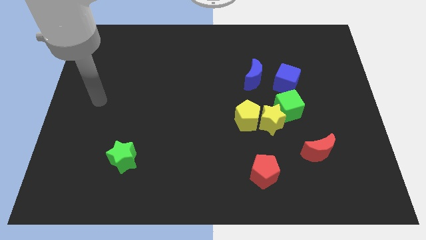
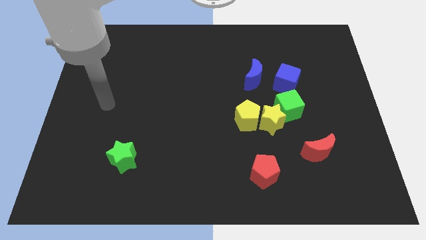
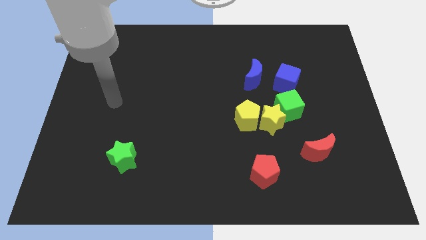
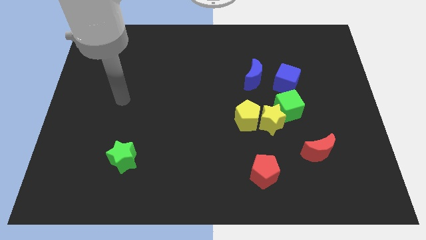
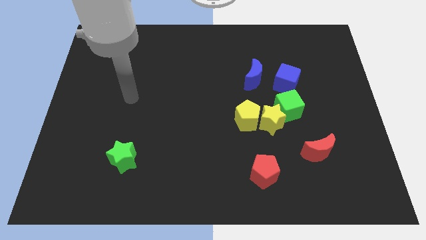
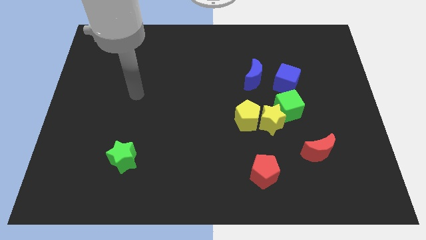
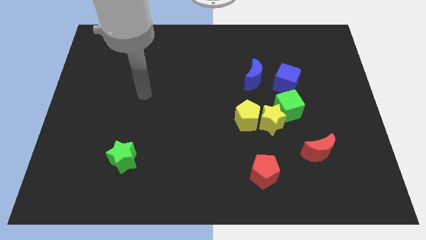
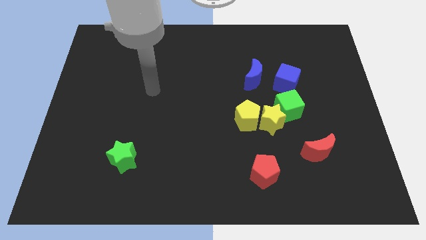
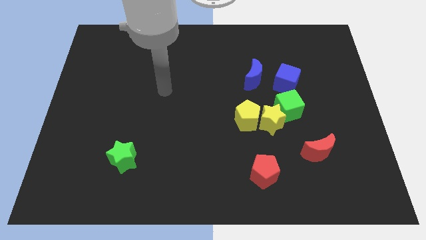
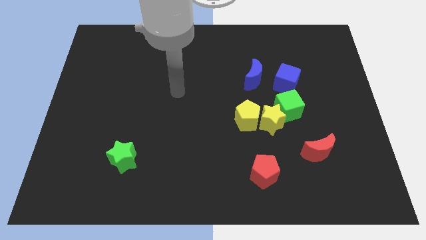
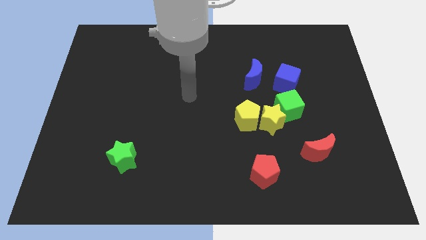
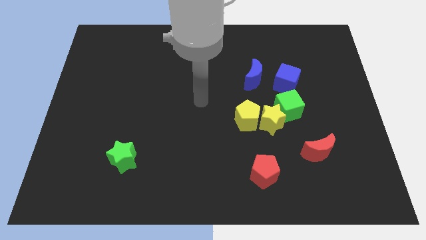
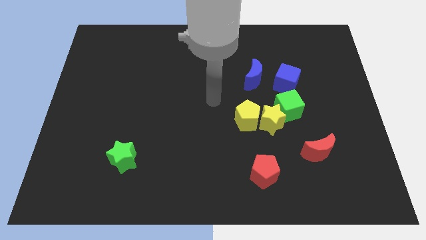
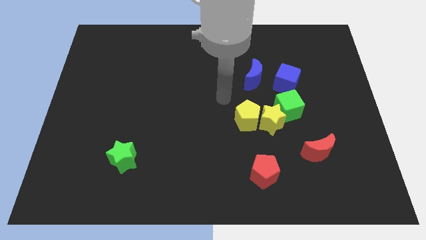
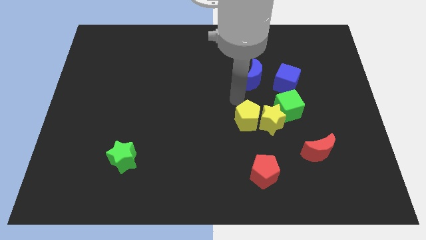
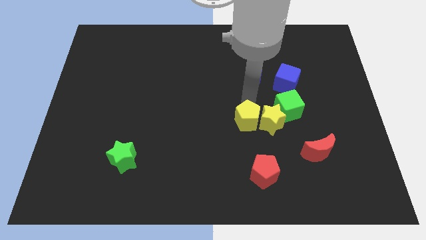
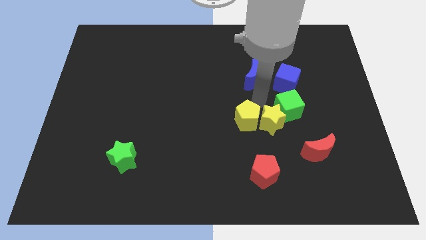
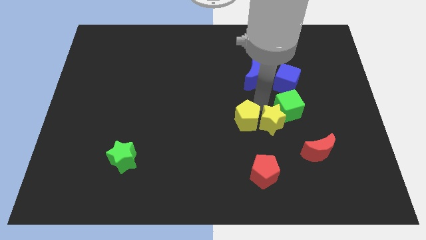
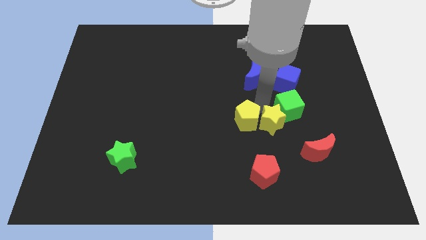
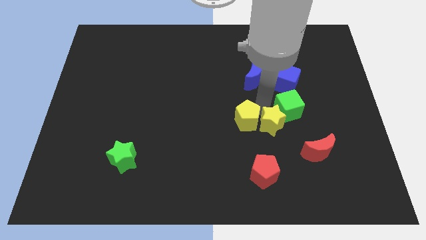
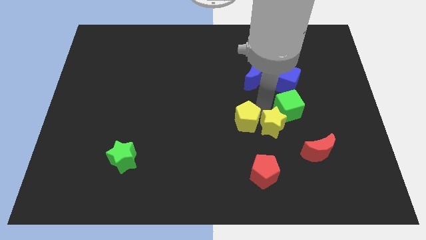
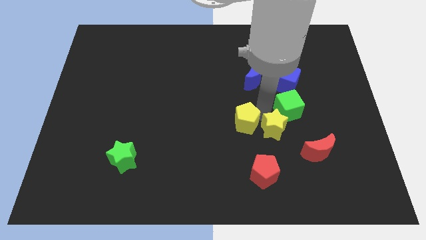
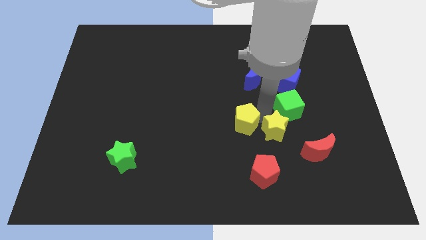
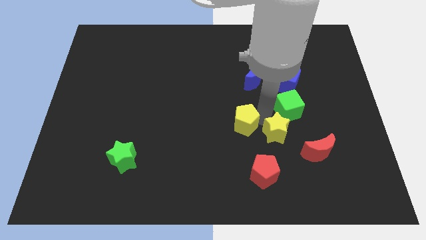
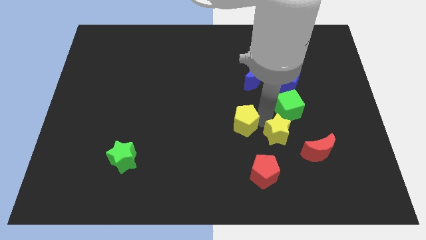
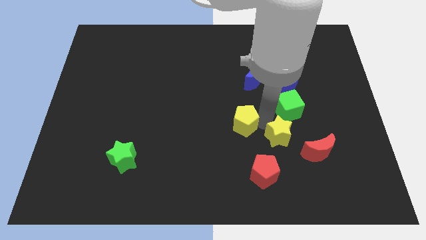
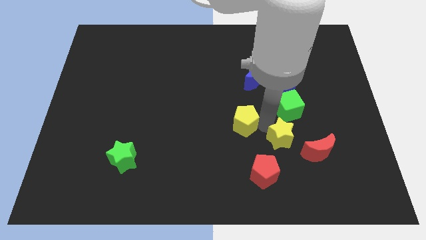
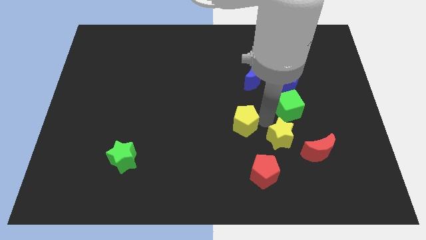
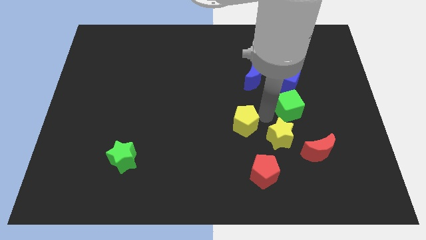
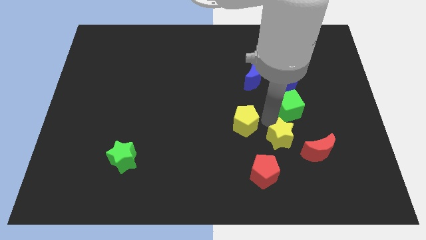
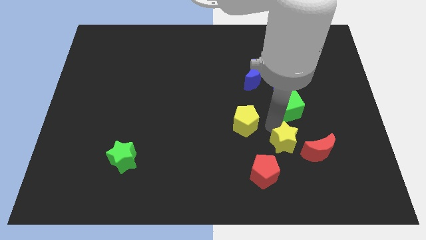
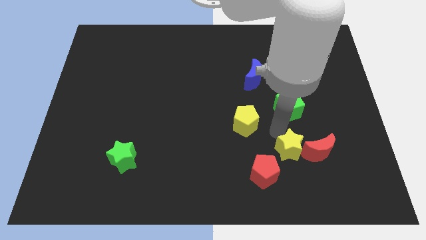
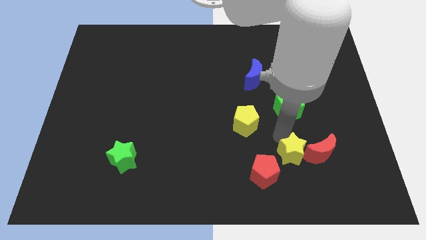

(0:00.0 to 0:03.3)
move the yellow star away from the green cube and yellow pentagon

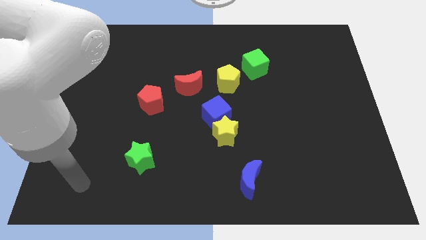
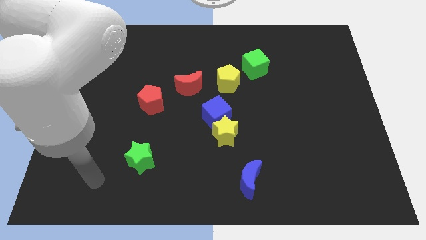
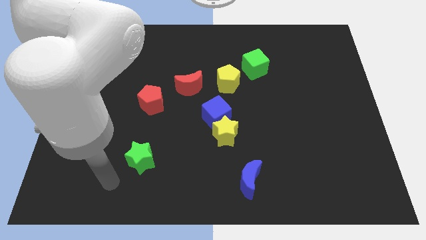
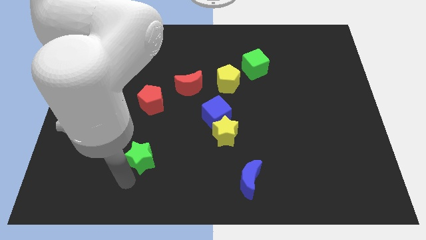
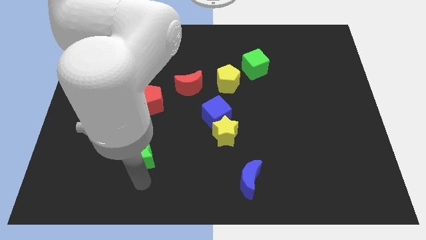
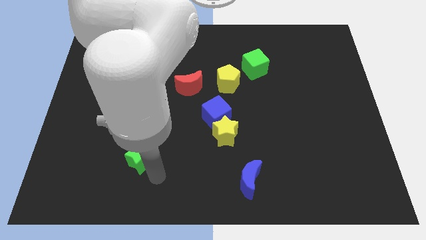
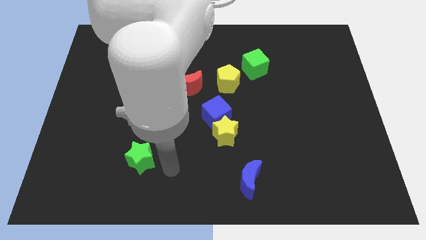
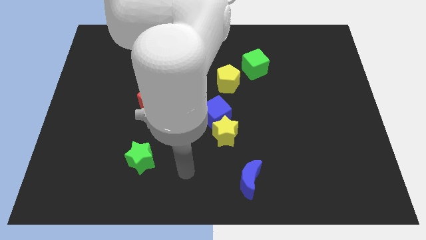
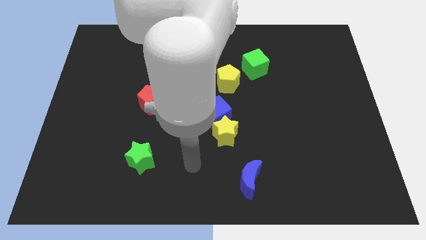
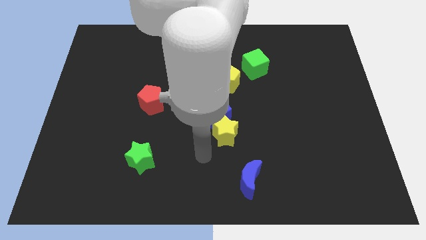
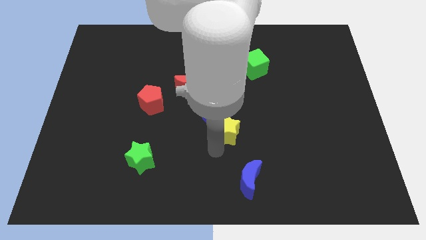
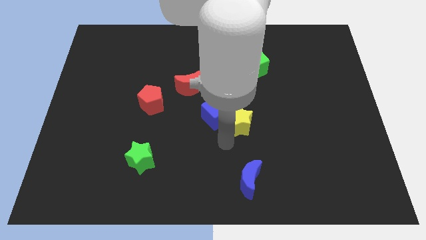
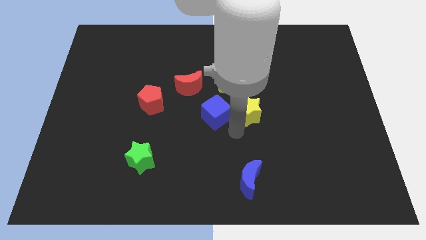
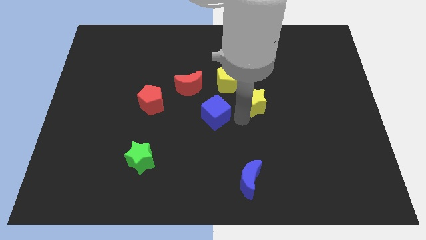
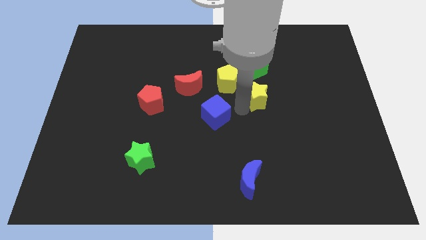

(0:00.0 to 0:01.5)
move the blue cube away from the yellow star

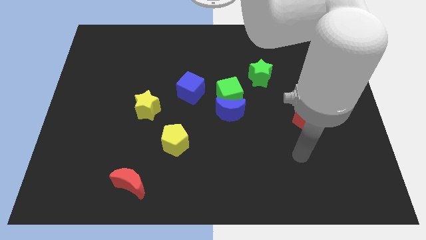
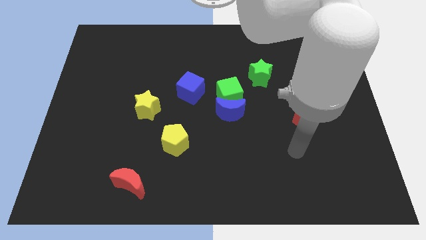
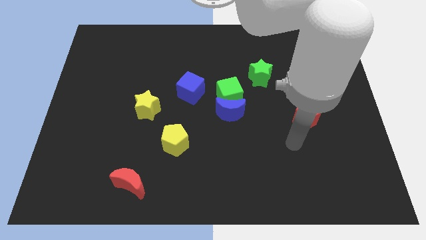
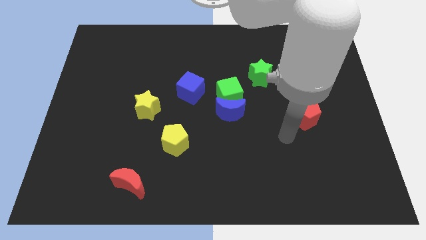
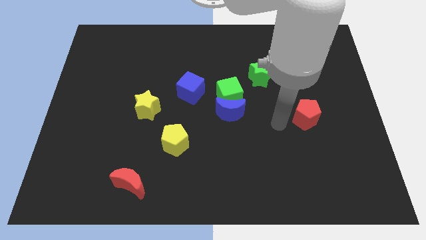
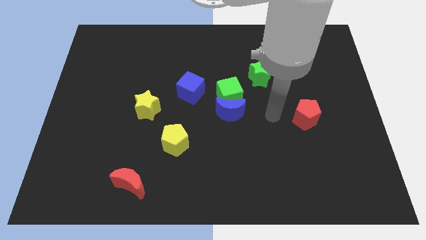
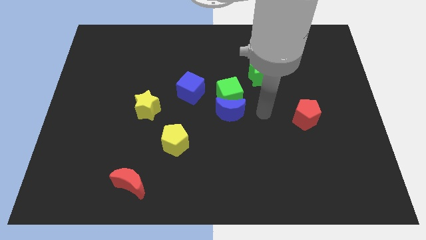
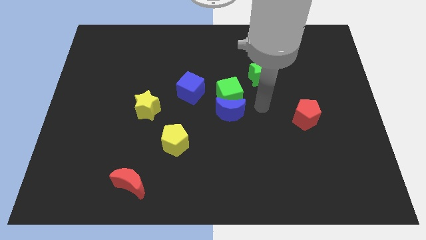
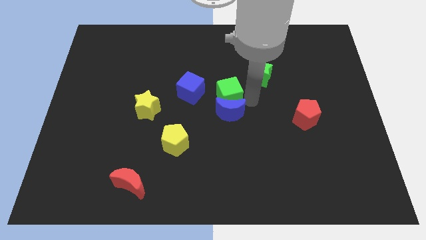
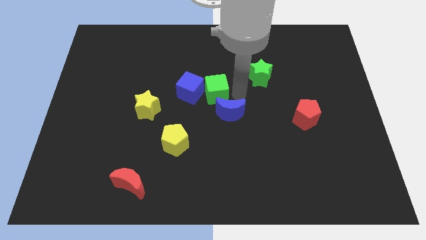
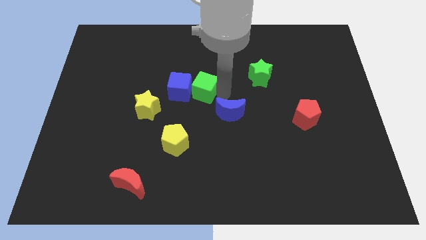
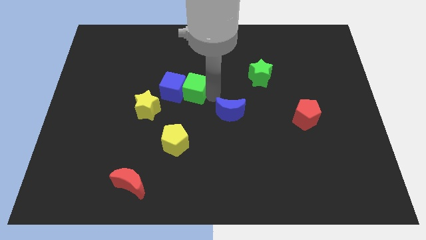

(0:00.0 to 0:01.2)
move the blue moon away from the green cube

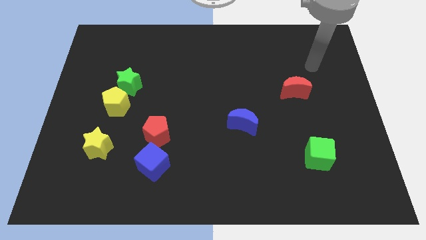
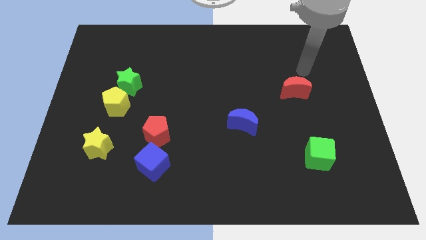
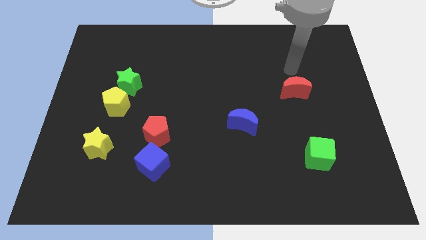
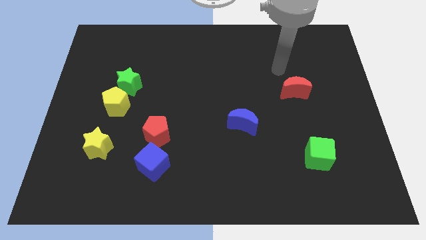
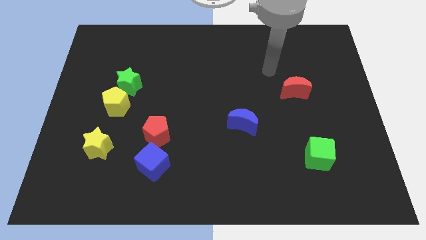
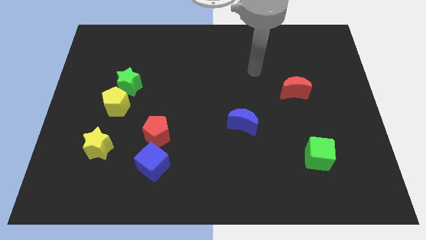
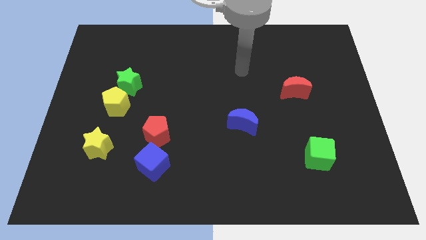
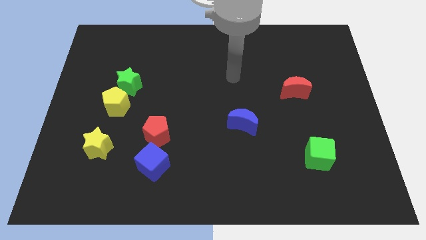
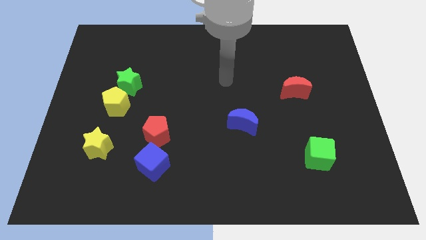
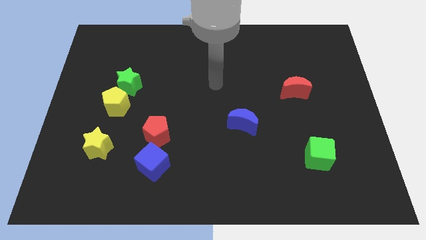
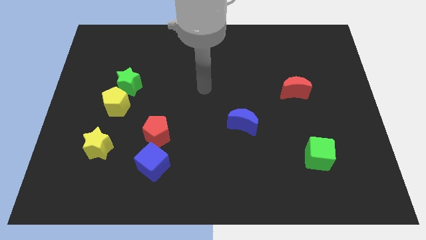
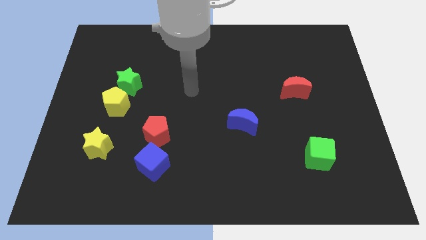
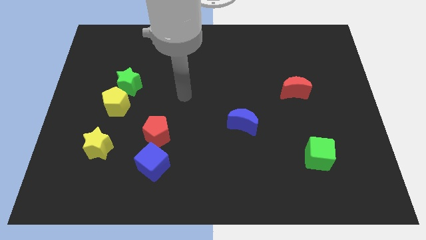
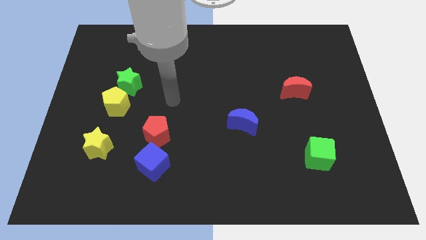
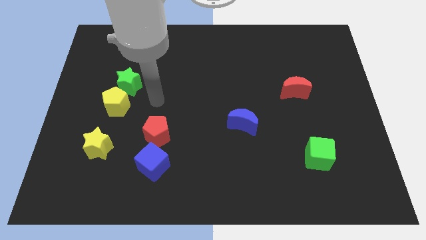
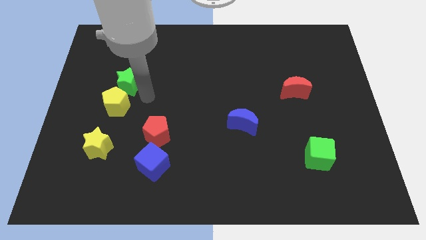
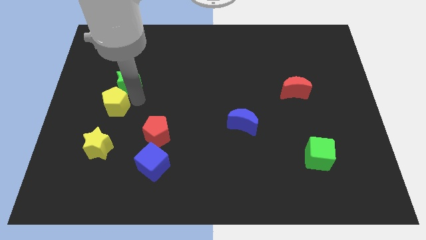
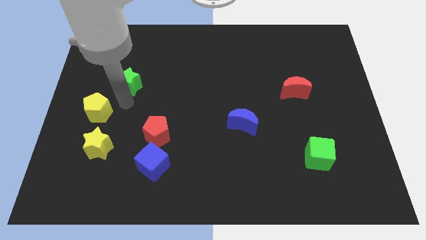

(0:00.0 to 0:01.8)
pull the green star apart from the yellow pentagon

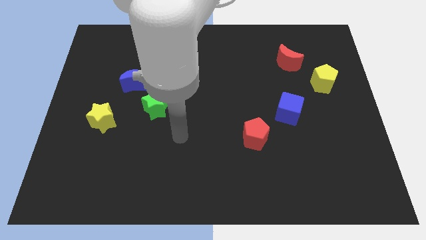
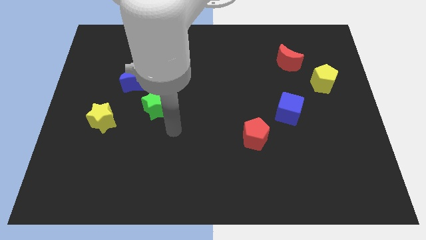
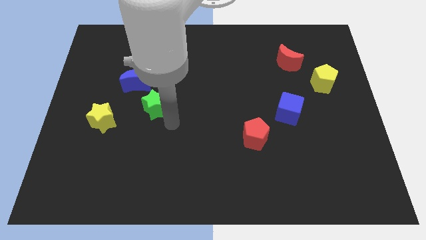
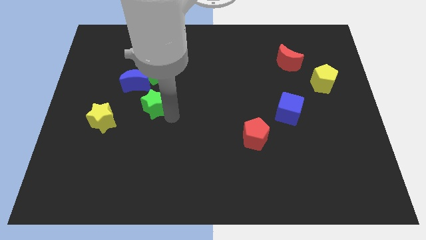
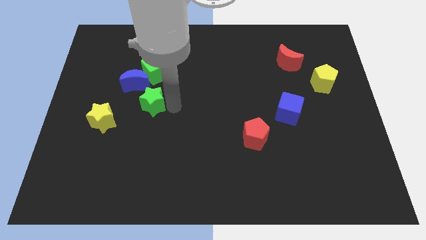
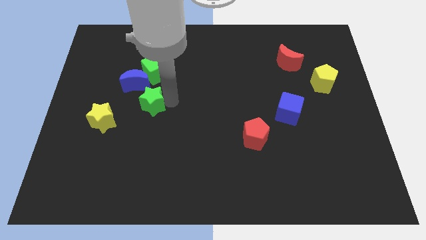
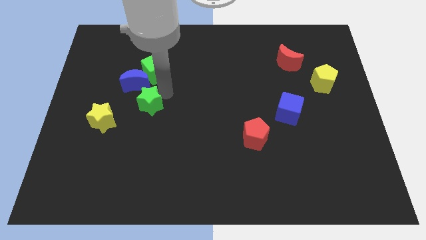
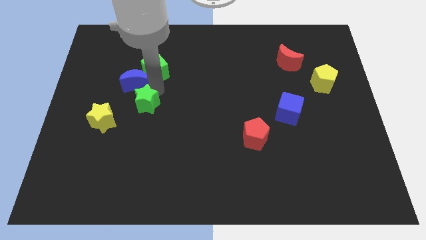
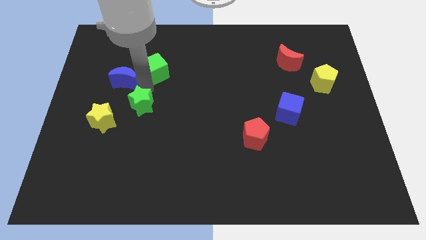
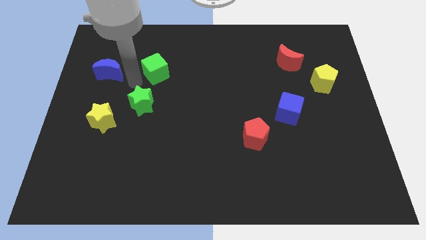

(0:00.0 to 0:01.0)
pull the green cube apart from the blue moon

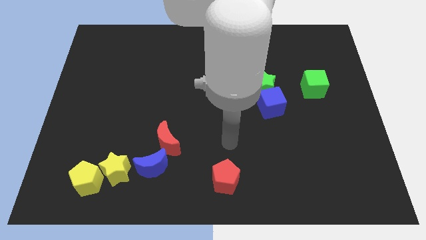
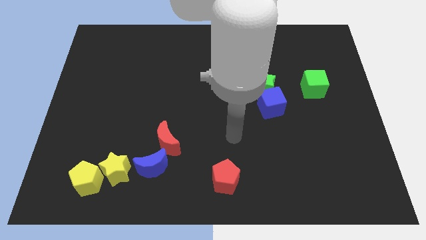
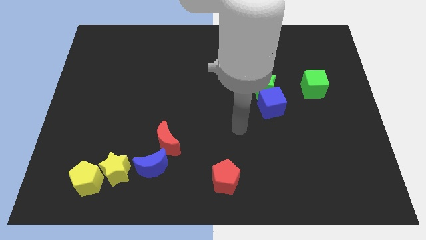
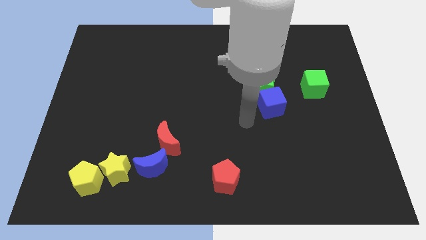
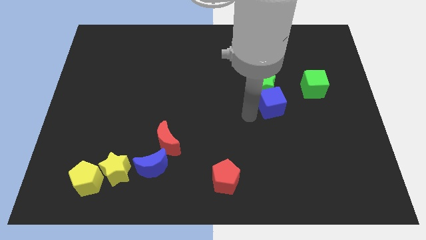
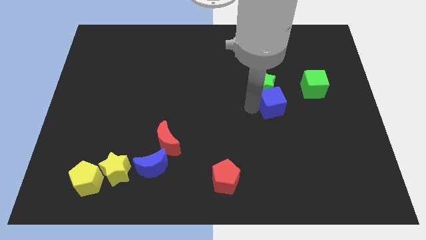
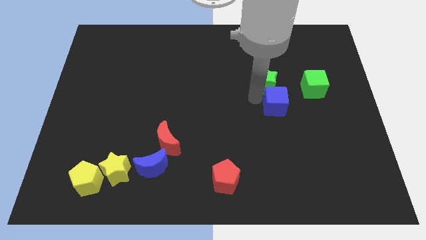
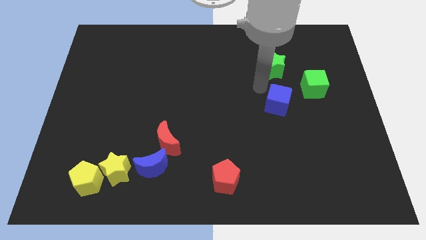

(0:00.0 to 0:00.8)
pull the blue cube apart from the green star
